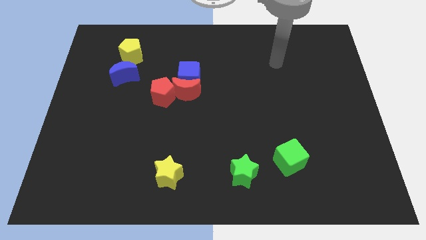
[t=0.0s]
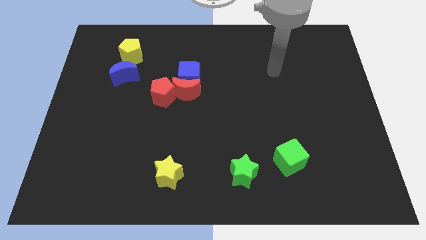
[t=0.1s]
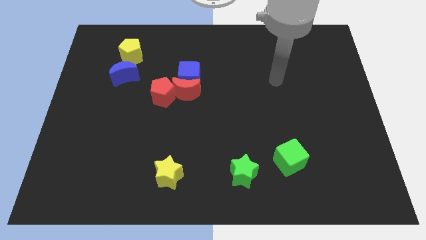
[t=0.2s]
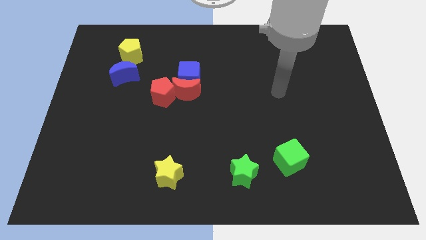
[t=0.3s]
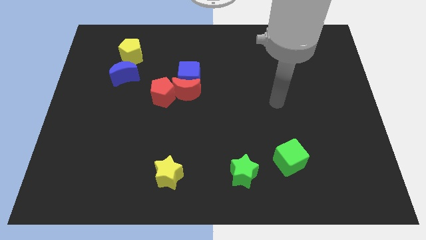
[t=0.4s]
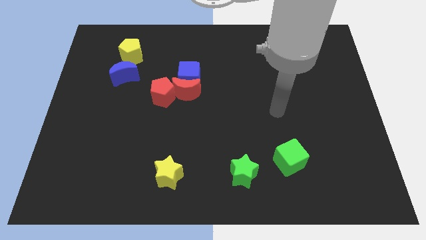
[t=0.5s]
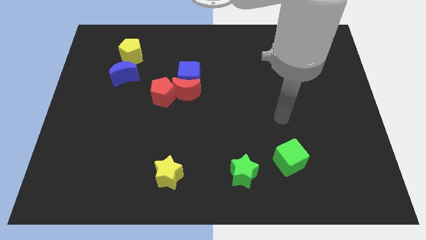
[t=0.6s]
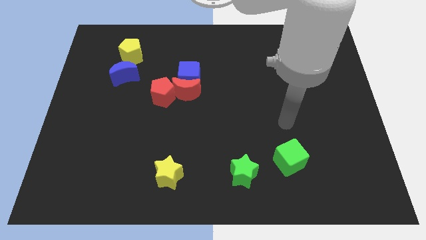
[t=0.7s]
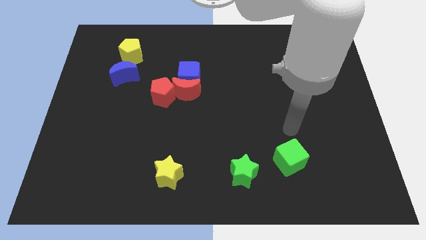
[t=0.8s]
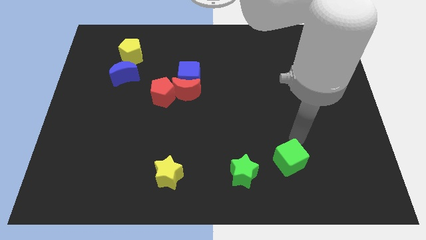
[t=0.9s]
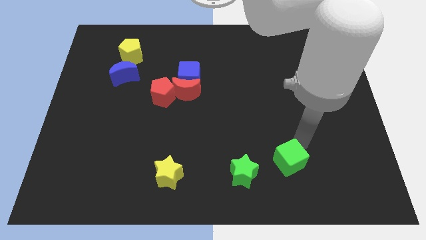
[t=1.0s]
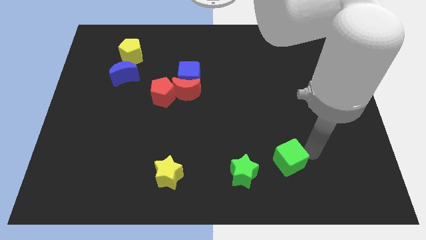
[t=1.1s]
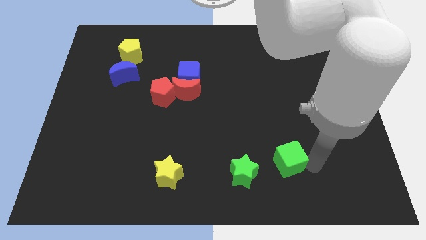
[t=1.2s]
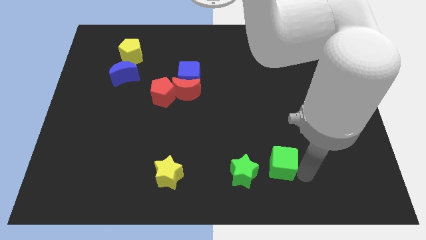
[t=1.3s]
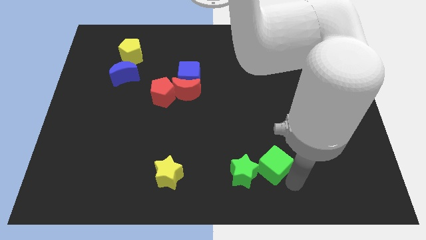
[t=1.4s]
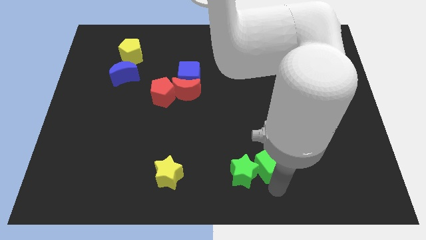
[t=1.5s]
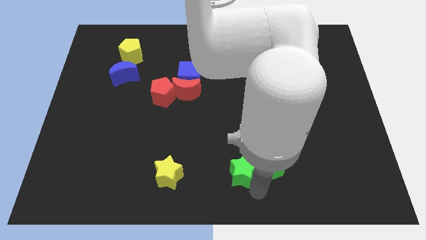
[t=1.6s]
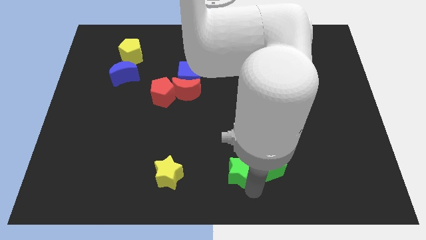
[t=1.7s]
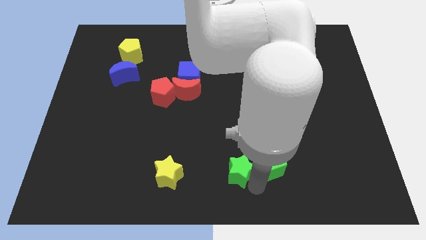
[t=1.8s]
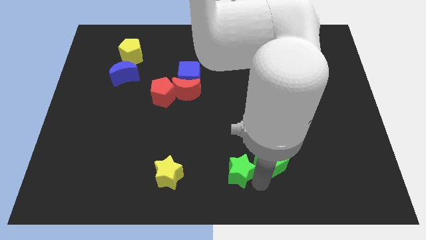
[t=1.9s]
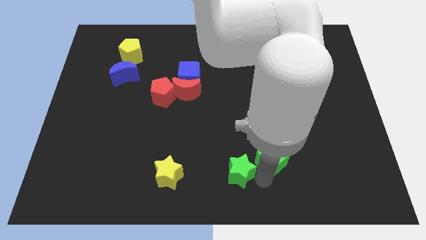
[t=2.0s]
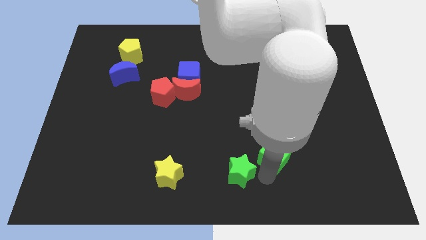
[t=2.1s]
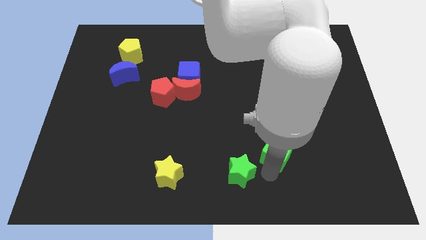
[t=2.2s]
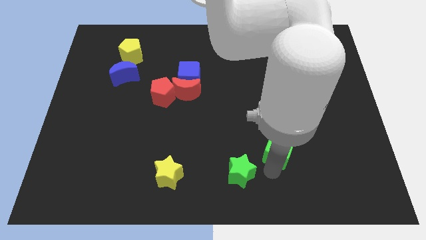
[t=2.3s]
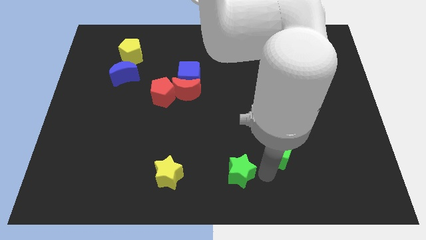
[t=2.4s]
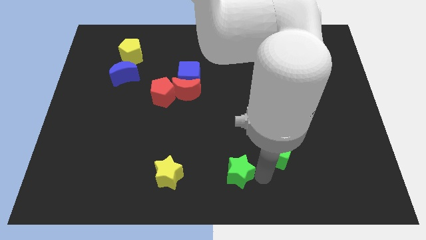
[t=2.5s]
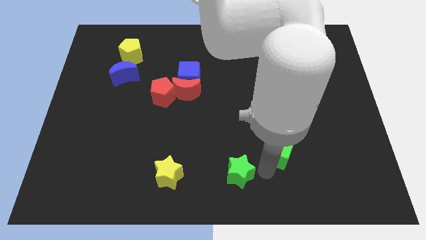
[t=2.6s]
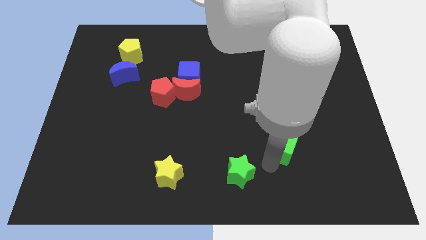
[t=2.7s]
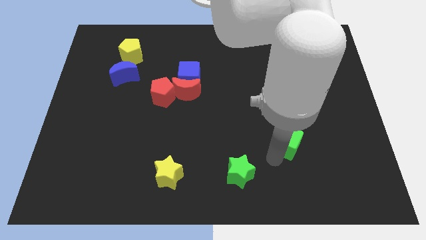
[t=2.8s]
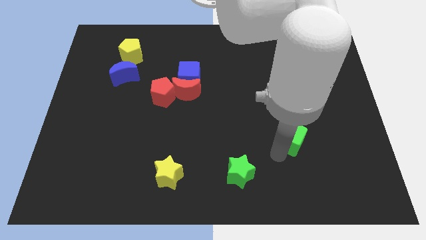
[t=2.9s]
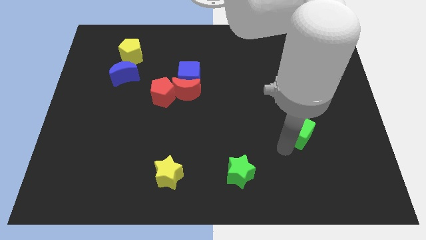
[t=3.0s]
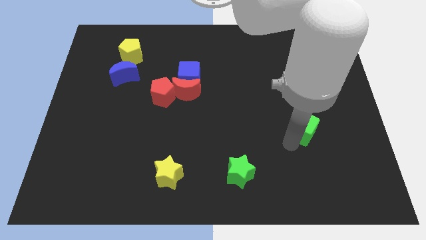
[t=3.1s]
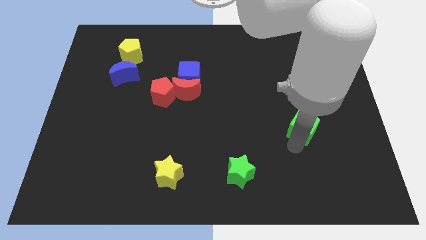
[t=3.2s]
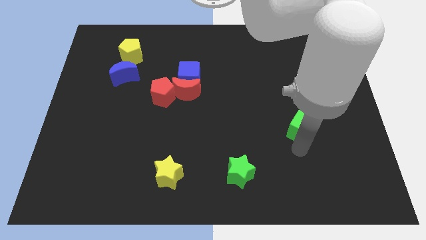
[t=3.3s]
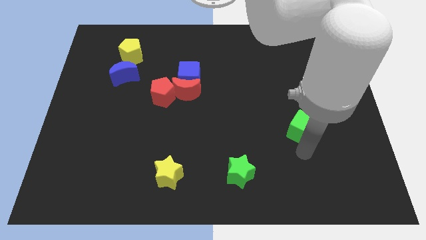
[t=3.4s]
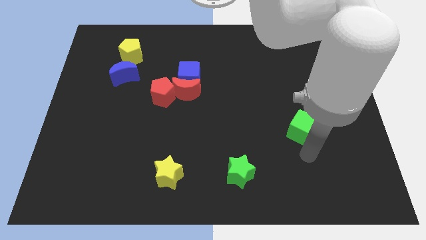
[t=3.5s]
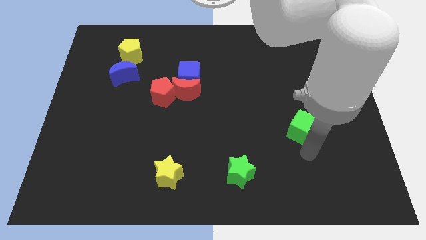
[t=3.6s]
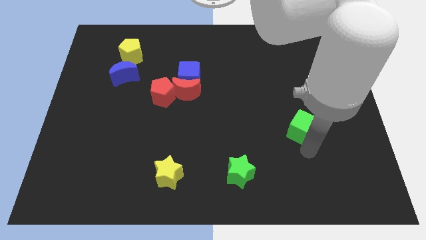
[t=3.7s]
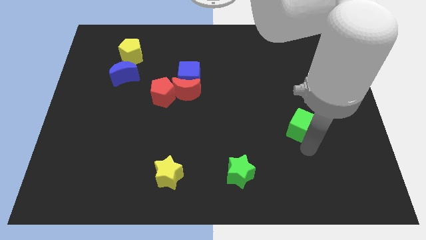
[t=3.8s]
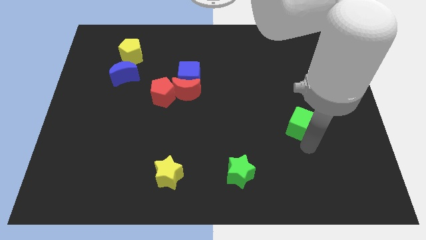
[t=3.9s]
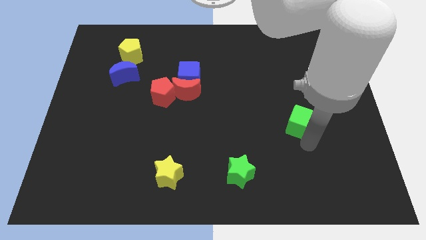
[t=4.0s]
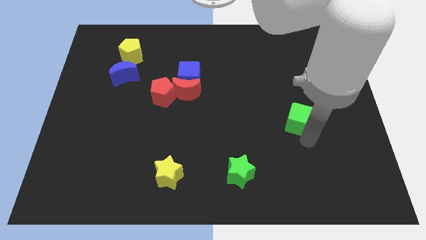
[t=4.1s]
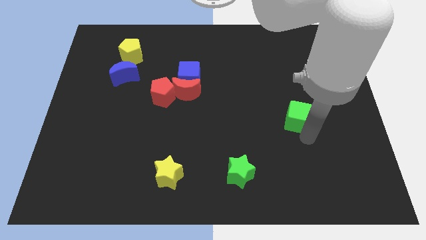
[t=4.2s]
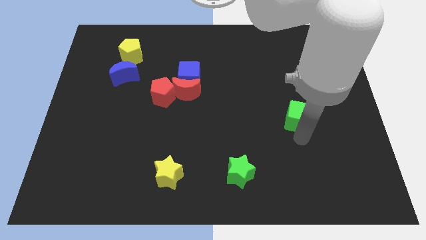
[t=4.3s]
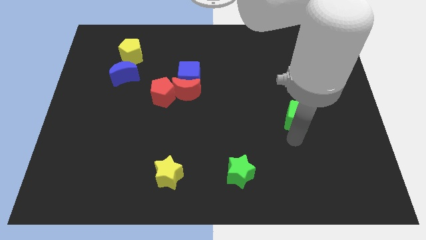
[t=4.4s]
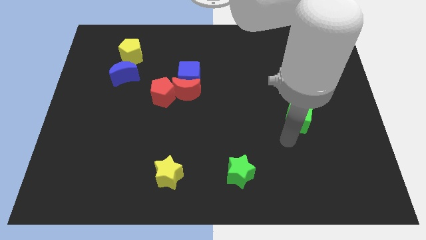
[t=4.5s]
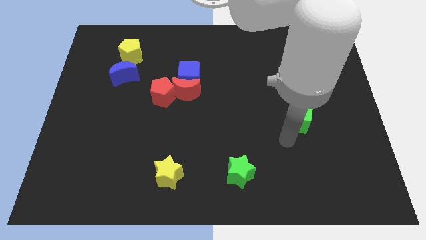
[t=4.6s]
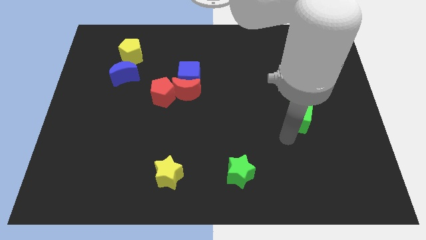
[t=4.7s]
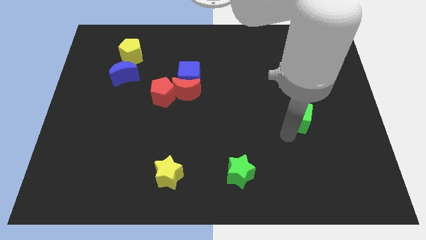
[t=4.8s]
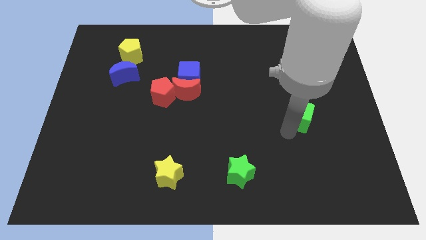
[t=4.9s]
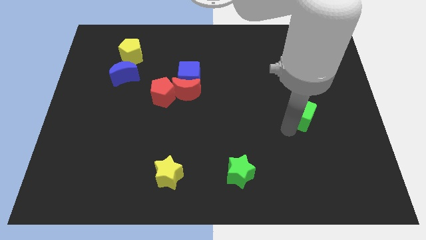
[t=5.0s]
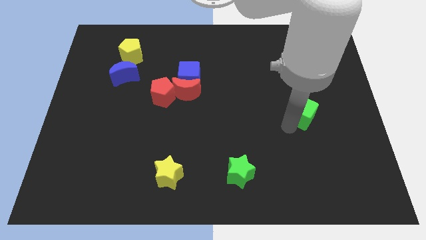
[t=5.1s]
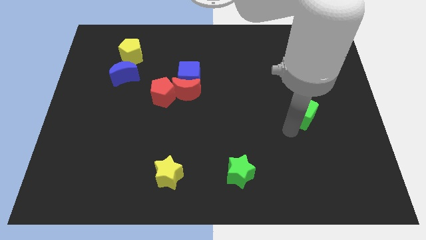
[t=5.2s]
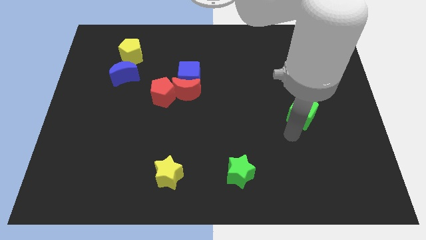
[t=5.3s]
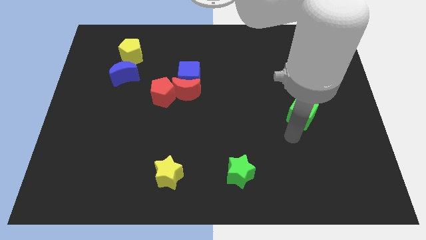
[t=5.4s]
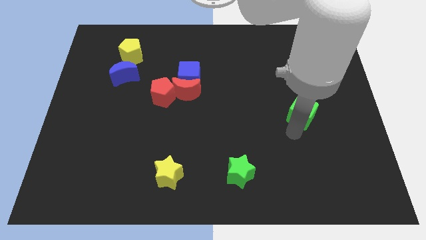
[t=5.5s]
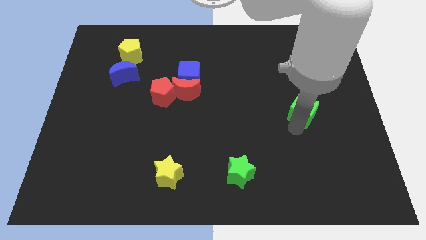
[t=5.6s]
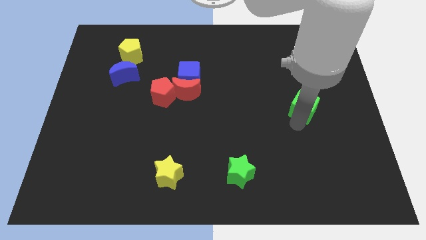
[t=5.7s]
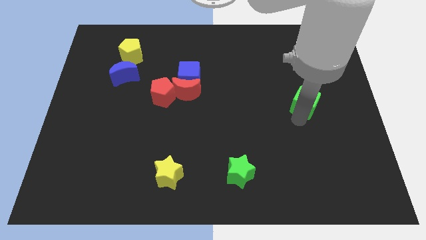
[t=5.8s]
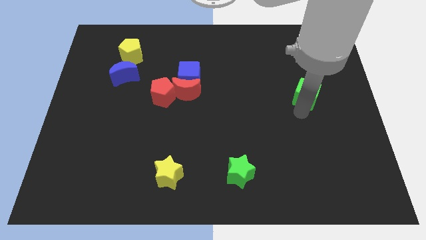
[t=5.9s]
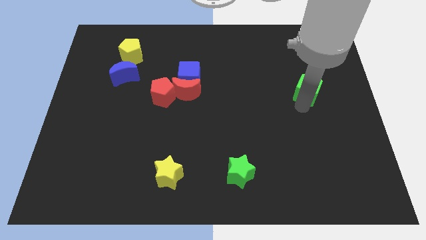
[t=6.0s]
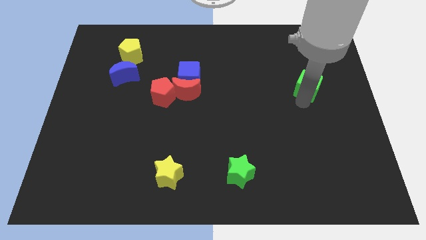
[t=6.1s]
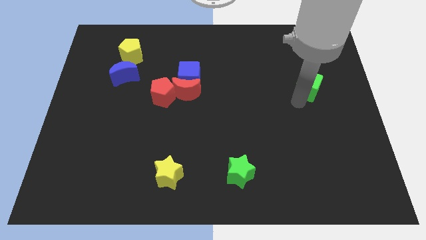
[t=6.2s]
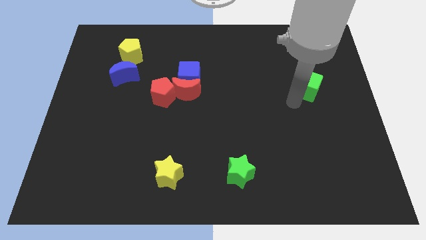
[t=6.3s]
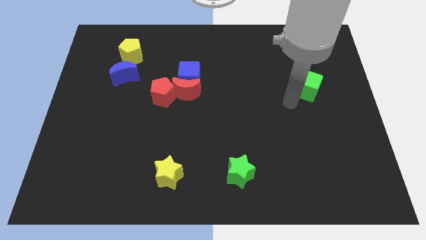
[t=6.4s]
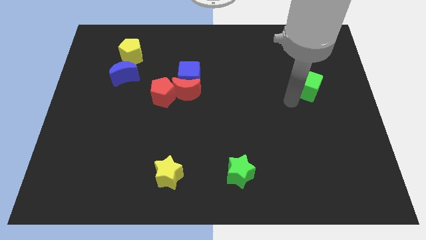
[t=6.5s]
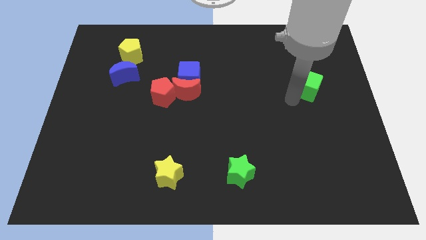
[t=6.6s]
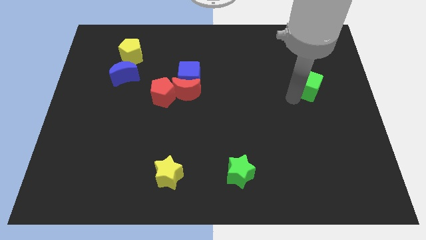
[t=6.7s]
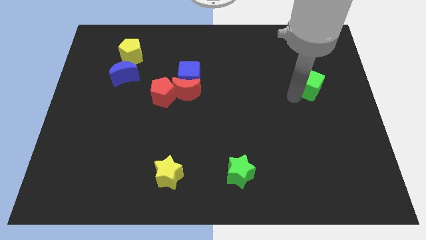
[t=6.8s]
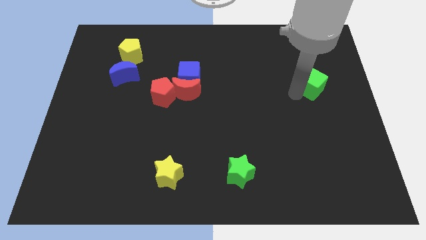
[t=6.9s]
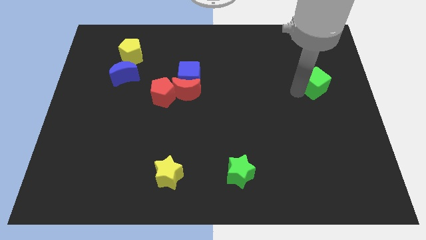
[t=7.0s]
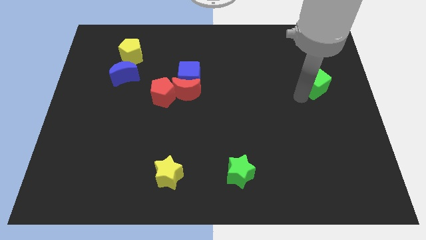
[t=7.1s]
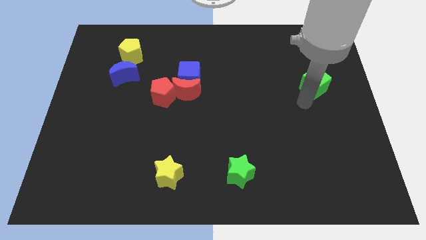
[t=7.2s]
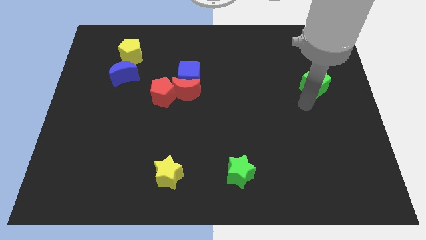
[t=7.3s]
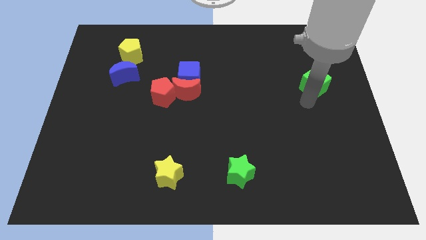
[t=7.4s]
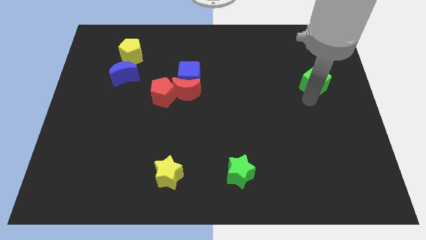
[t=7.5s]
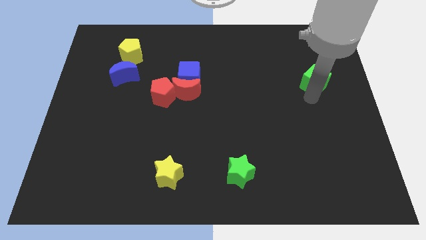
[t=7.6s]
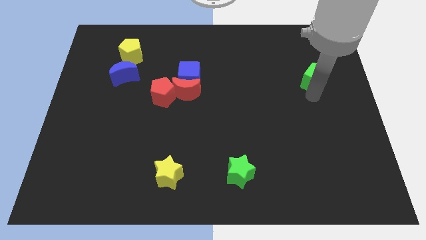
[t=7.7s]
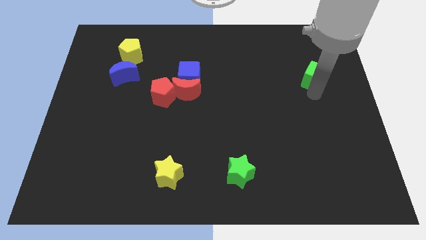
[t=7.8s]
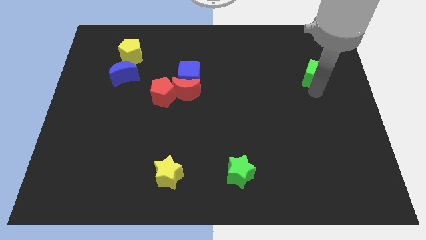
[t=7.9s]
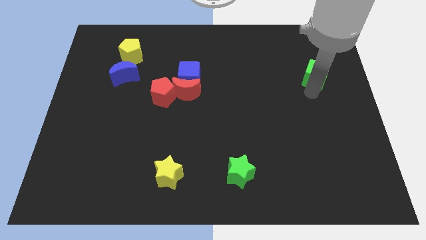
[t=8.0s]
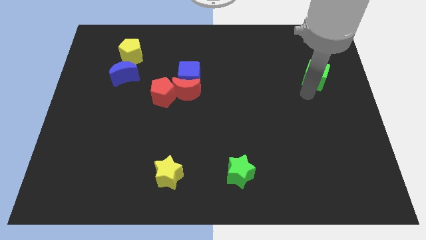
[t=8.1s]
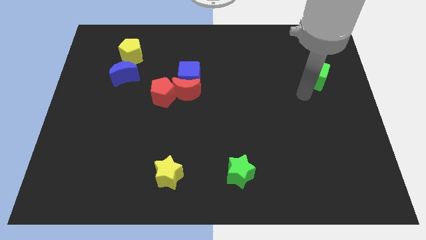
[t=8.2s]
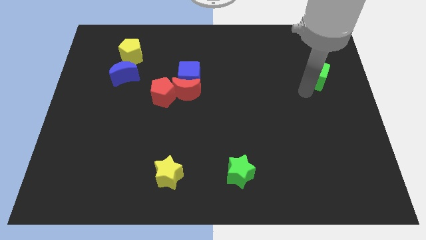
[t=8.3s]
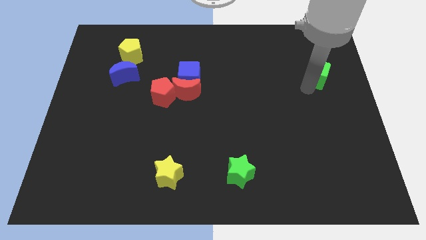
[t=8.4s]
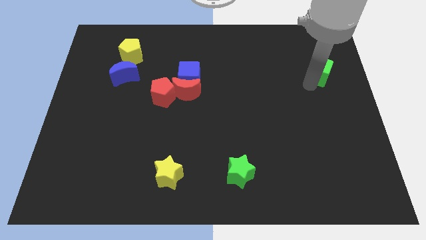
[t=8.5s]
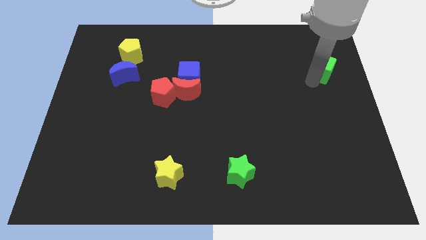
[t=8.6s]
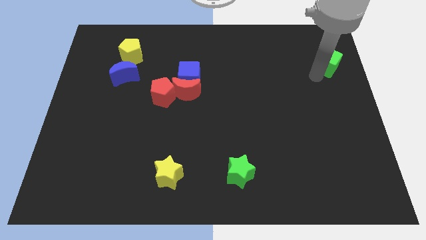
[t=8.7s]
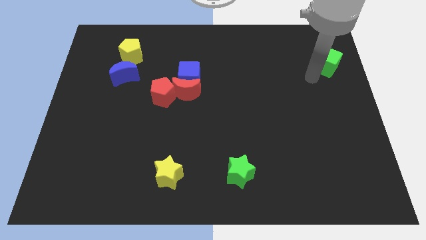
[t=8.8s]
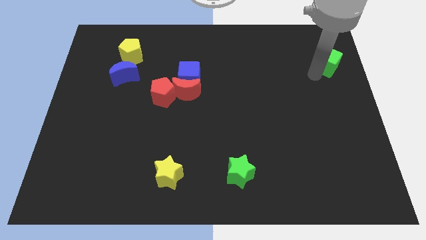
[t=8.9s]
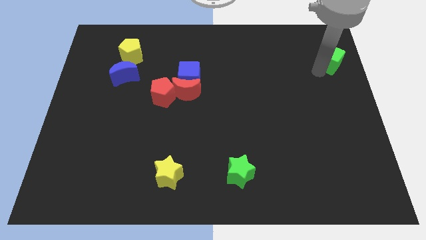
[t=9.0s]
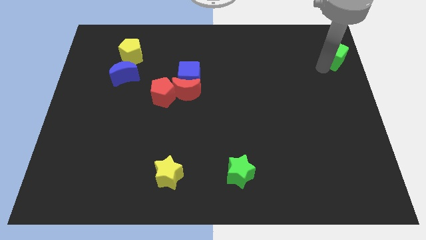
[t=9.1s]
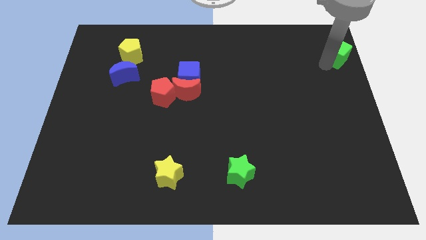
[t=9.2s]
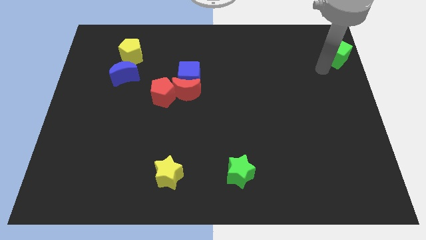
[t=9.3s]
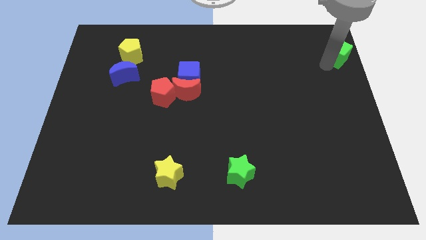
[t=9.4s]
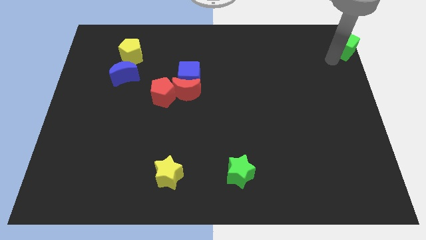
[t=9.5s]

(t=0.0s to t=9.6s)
push the green cube to the top right of the board
